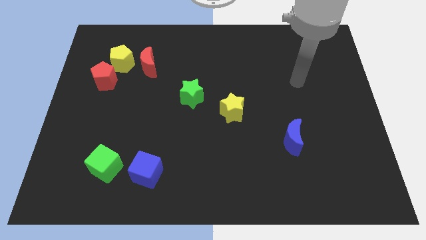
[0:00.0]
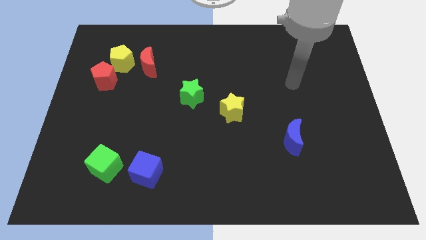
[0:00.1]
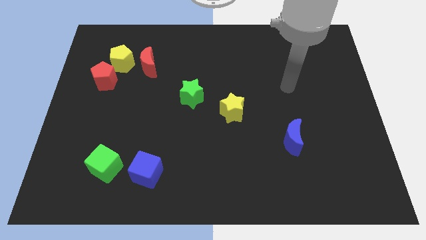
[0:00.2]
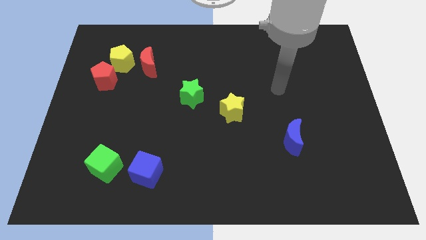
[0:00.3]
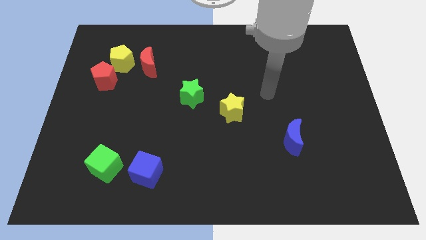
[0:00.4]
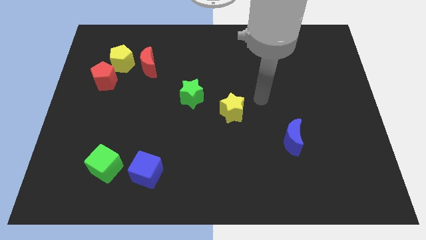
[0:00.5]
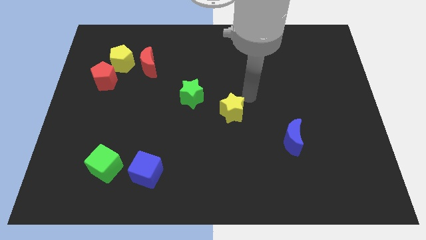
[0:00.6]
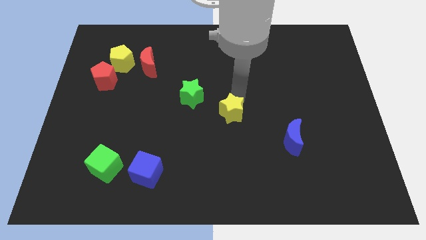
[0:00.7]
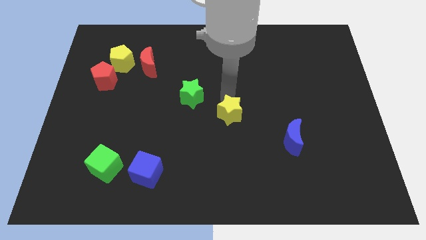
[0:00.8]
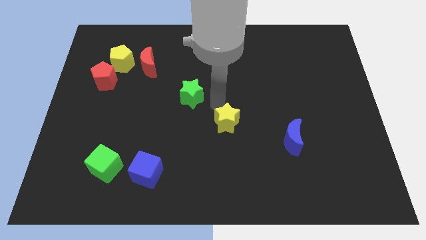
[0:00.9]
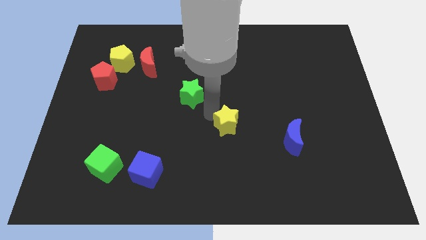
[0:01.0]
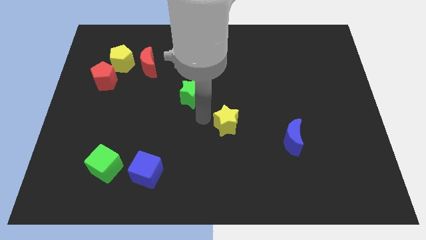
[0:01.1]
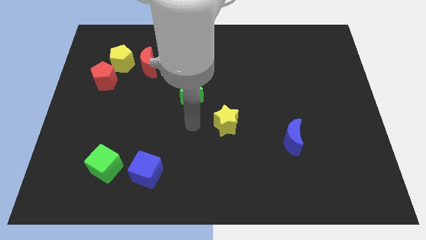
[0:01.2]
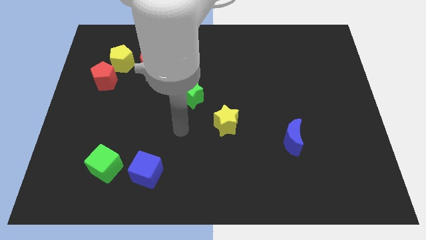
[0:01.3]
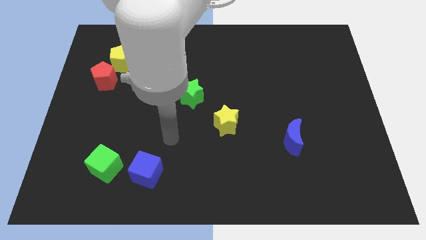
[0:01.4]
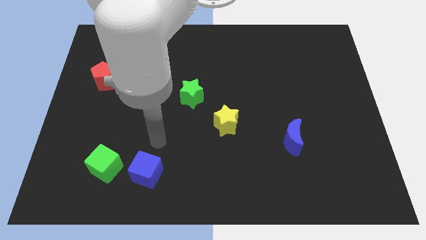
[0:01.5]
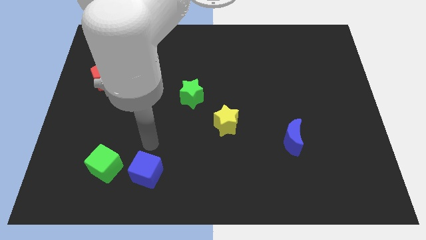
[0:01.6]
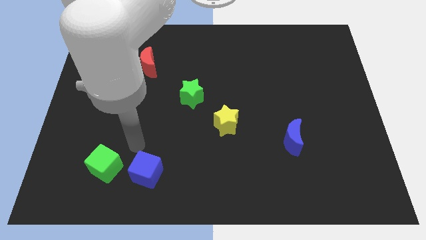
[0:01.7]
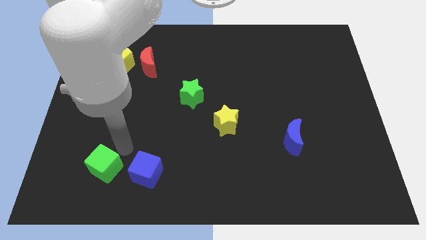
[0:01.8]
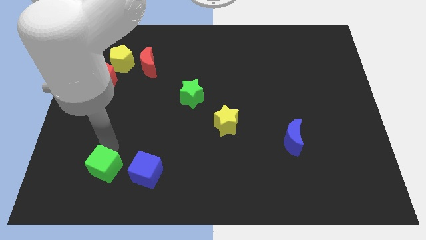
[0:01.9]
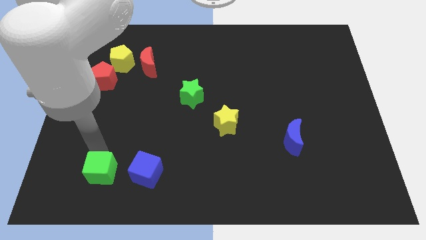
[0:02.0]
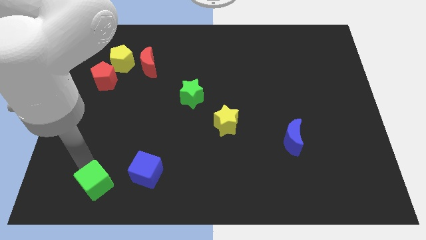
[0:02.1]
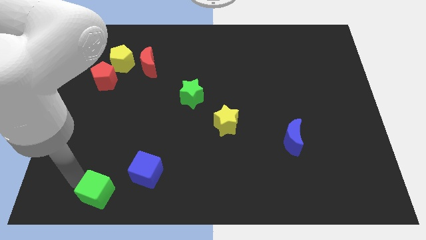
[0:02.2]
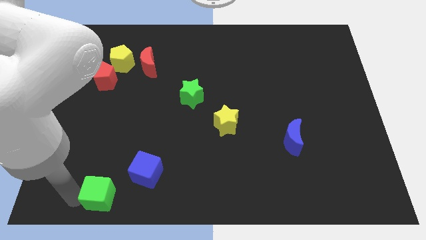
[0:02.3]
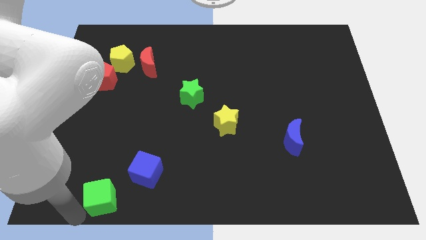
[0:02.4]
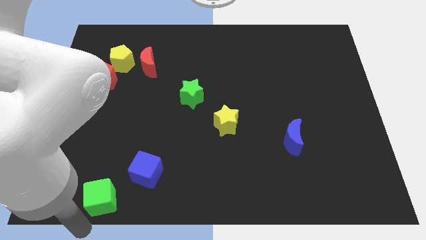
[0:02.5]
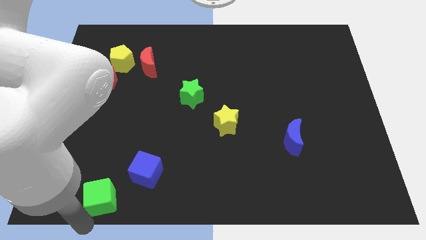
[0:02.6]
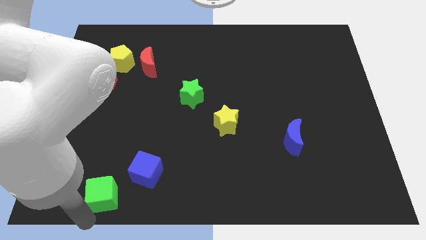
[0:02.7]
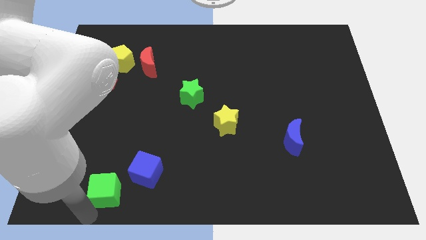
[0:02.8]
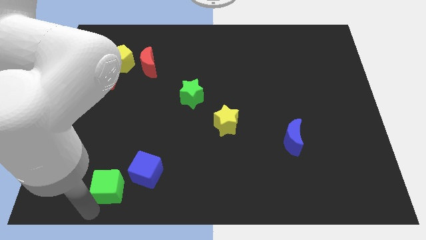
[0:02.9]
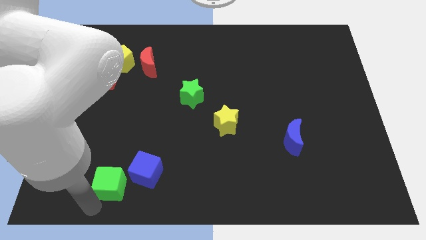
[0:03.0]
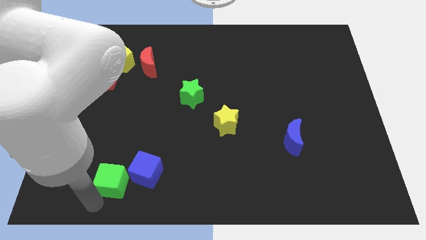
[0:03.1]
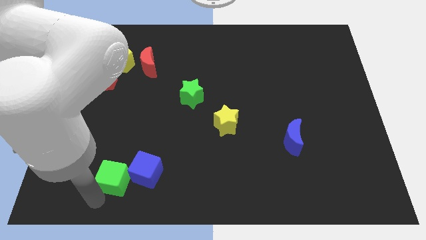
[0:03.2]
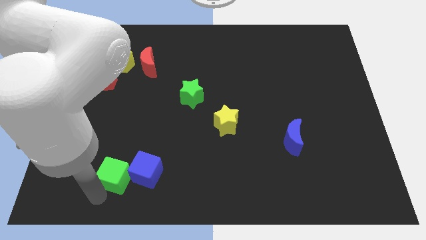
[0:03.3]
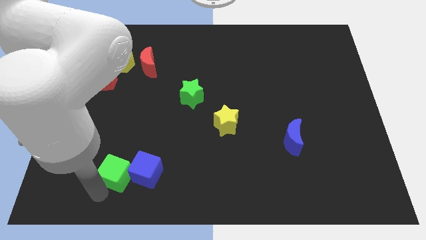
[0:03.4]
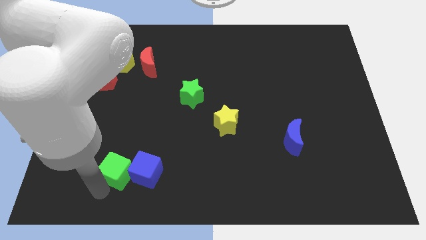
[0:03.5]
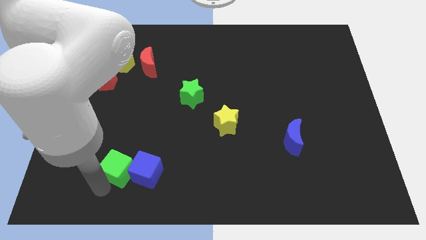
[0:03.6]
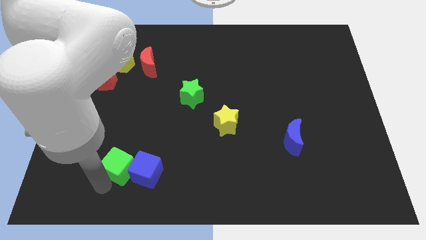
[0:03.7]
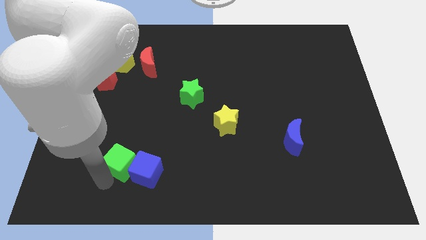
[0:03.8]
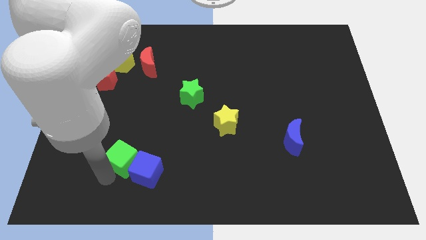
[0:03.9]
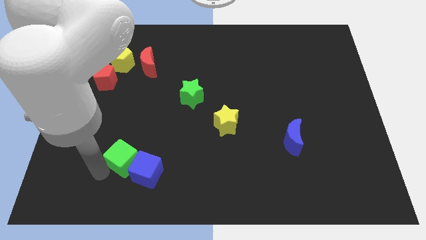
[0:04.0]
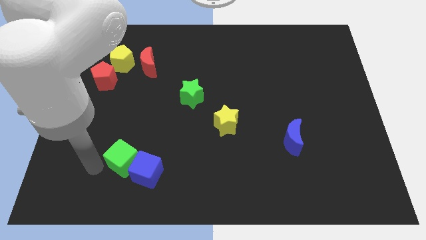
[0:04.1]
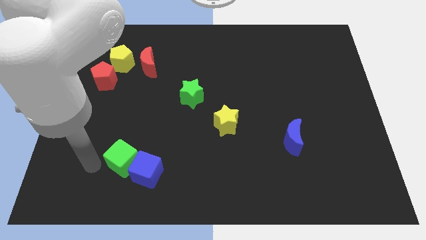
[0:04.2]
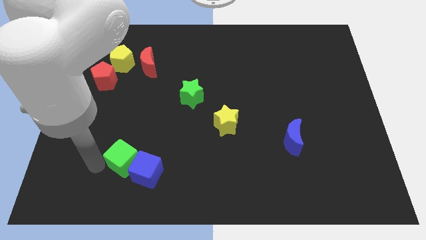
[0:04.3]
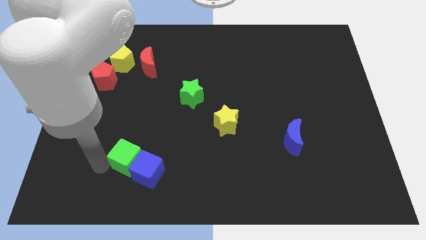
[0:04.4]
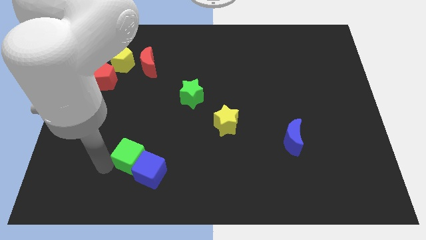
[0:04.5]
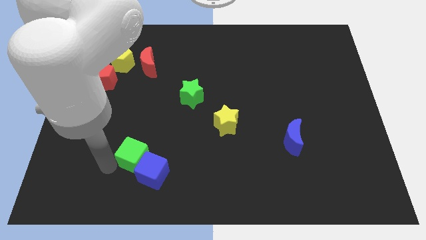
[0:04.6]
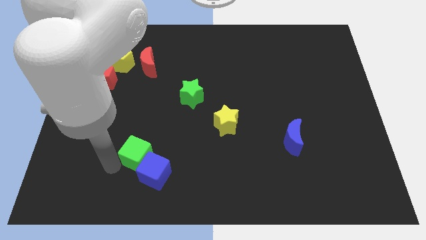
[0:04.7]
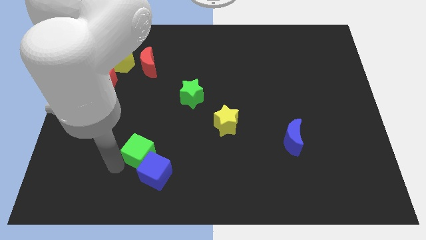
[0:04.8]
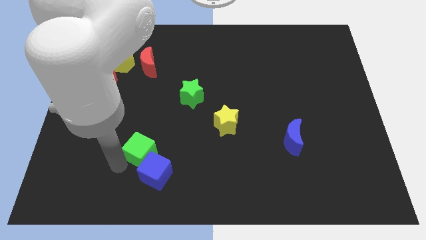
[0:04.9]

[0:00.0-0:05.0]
move the green cube a bit to the right

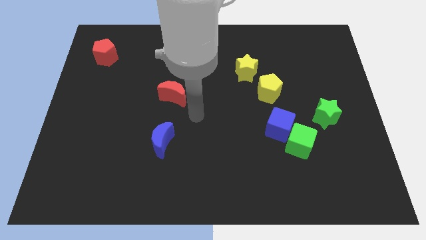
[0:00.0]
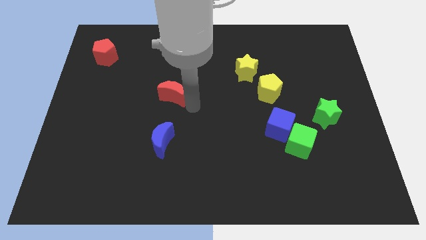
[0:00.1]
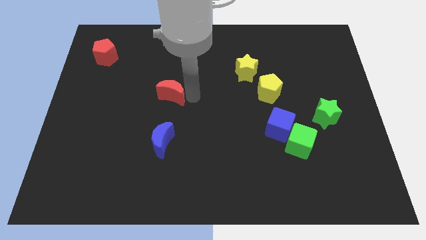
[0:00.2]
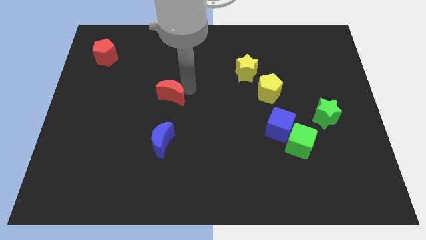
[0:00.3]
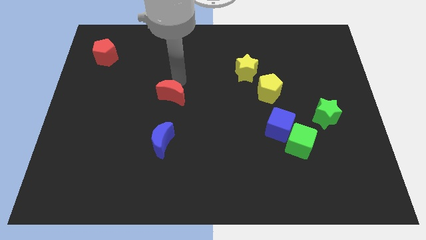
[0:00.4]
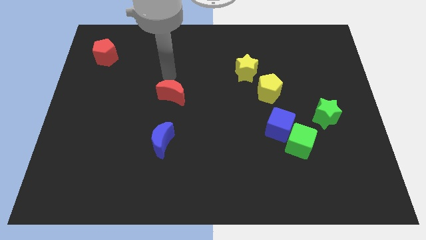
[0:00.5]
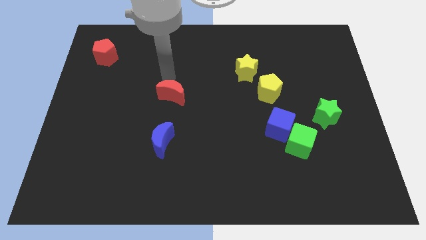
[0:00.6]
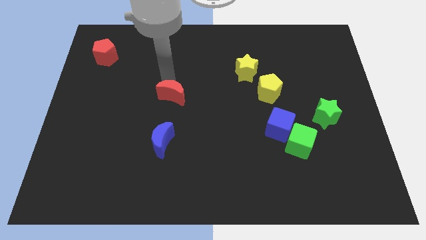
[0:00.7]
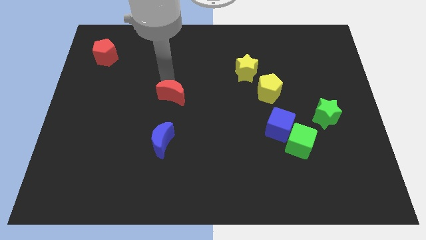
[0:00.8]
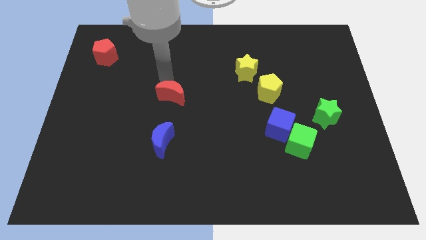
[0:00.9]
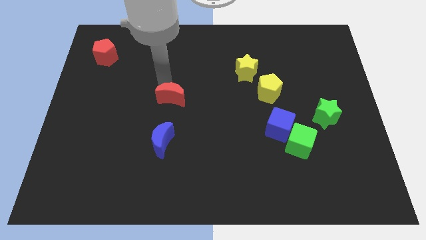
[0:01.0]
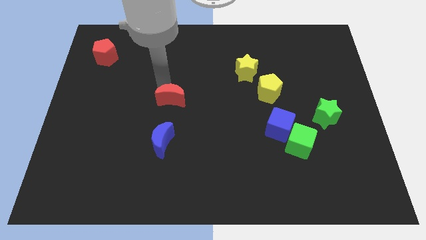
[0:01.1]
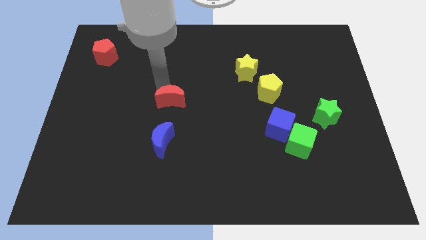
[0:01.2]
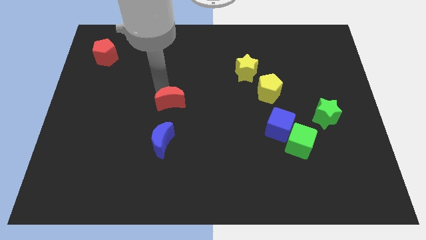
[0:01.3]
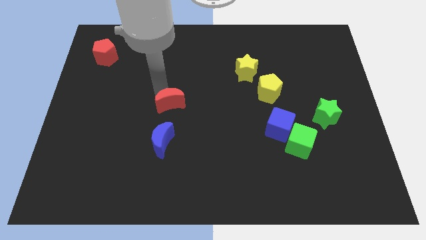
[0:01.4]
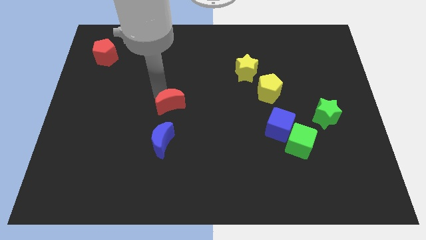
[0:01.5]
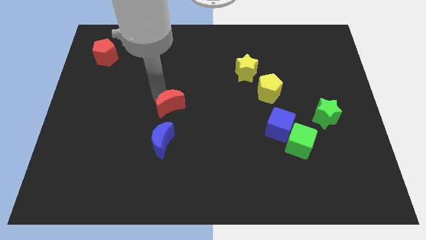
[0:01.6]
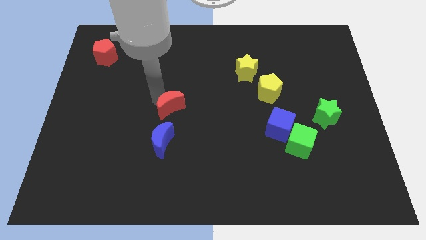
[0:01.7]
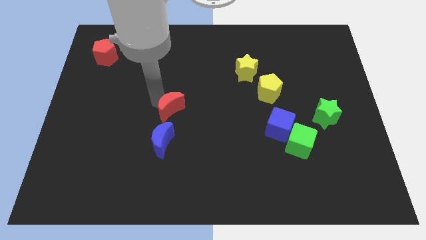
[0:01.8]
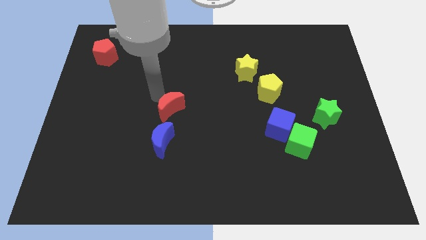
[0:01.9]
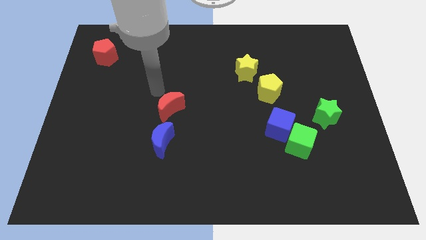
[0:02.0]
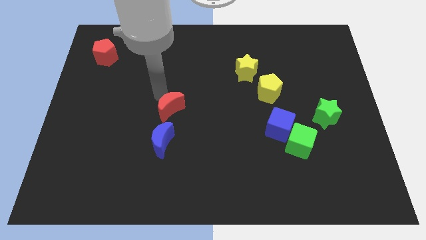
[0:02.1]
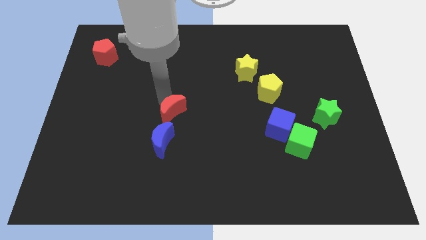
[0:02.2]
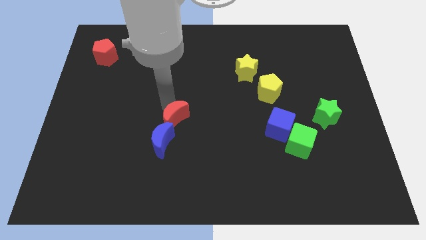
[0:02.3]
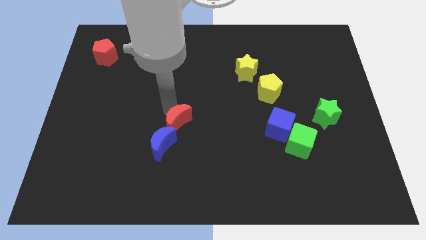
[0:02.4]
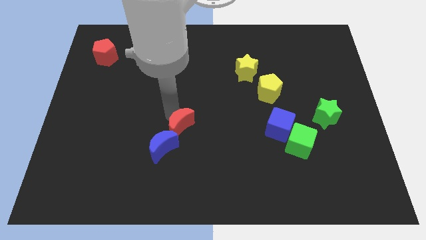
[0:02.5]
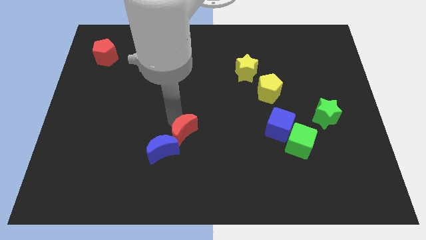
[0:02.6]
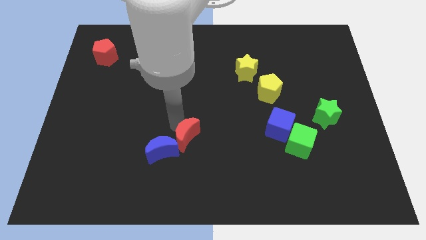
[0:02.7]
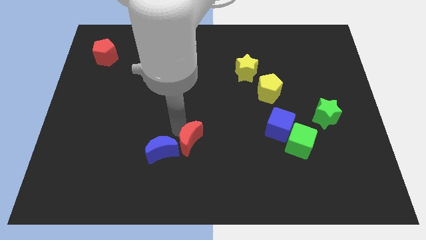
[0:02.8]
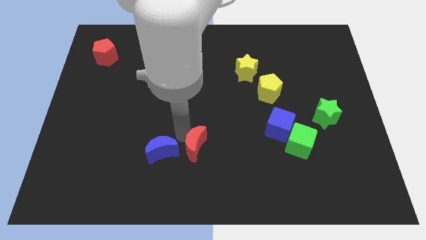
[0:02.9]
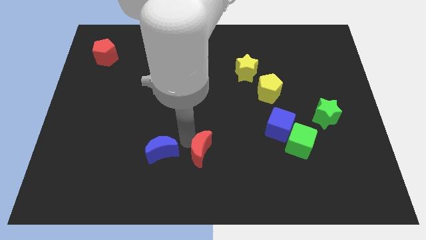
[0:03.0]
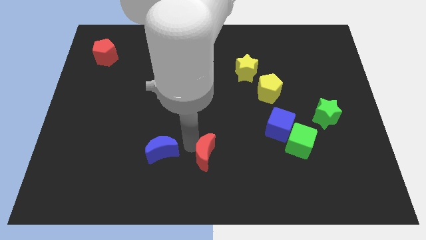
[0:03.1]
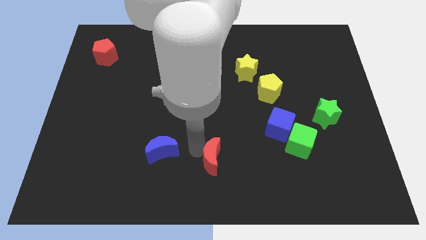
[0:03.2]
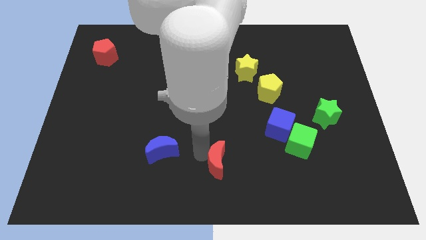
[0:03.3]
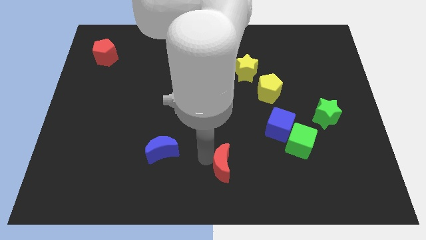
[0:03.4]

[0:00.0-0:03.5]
move the red moon down and then to the right
